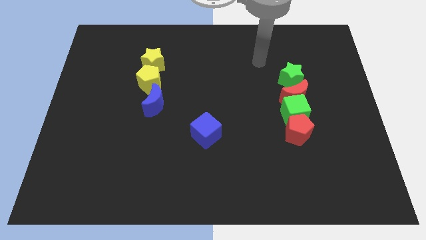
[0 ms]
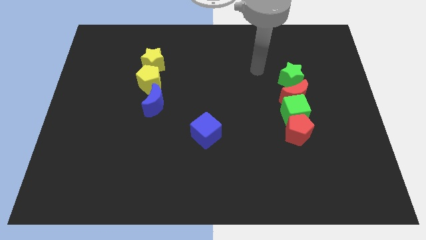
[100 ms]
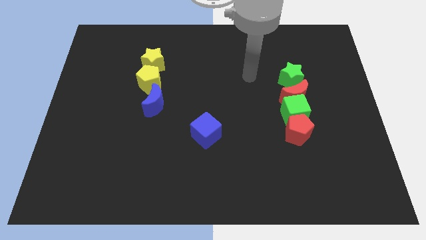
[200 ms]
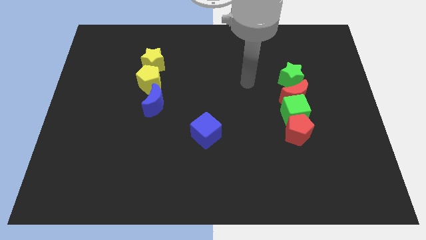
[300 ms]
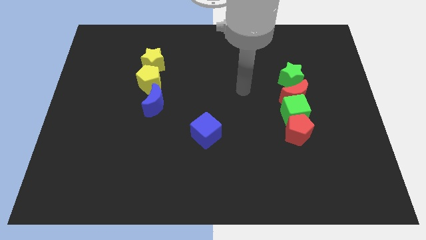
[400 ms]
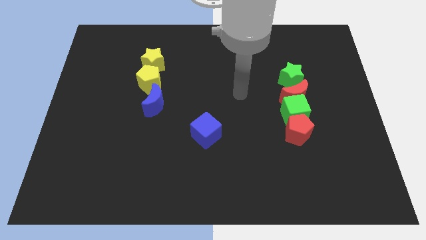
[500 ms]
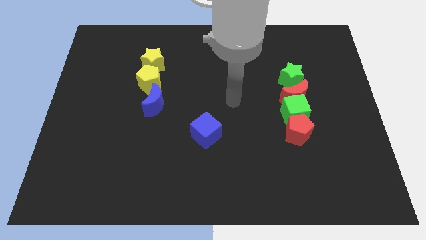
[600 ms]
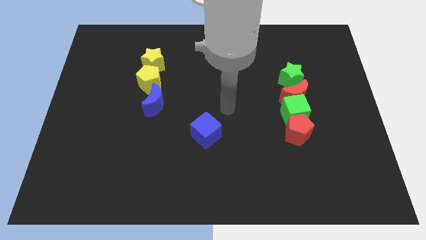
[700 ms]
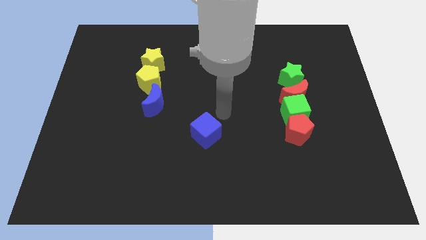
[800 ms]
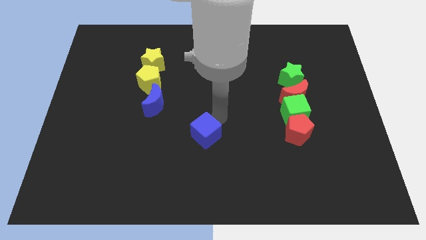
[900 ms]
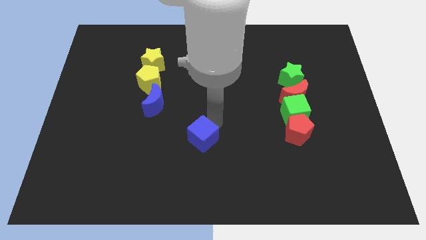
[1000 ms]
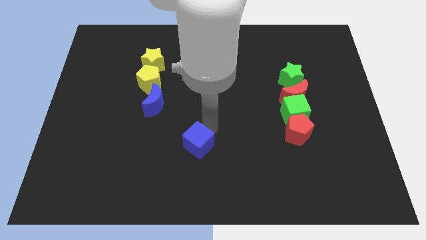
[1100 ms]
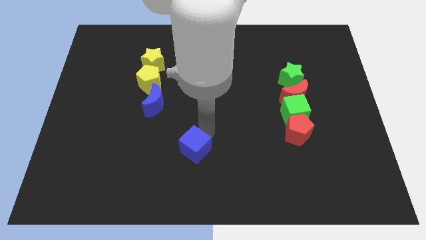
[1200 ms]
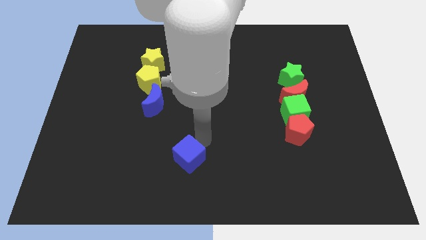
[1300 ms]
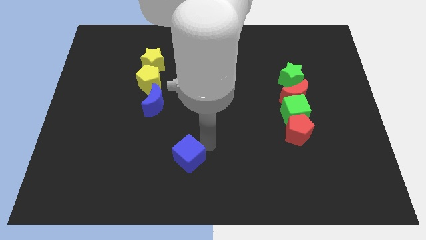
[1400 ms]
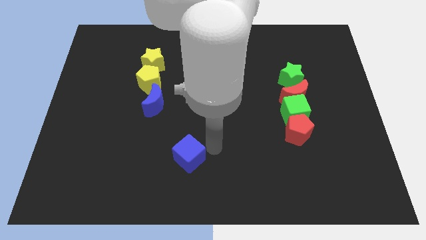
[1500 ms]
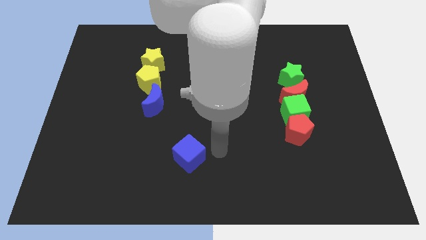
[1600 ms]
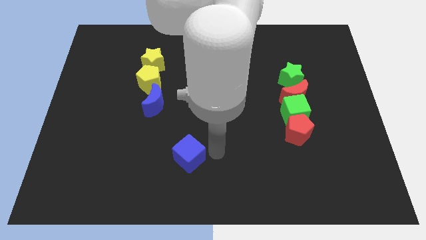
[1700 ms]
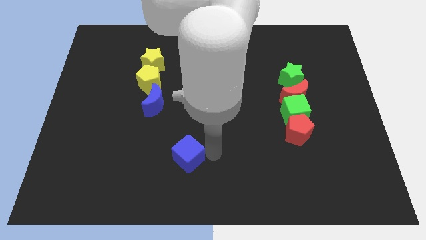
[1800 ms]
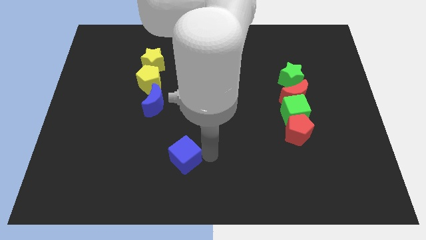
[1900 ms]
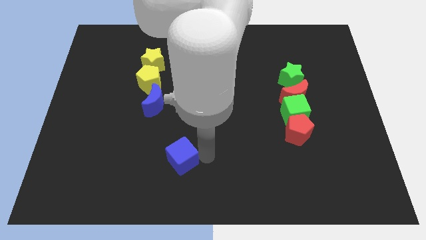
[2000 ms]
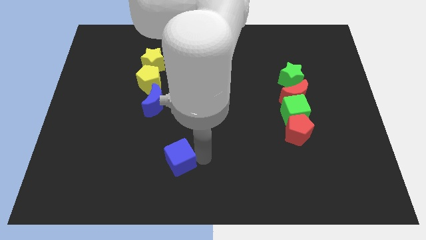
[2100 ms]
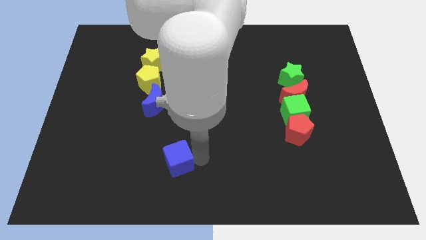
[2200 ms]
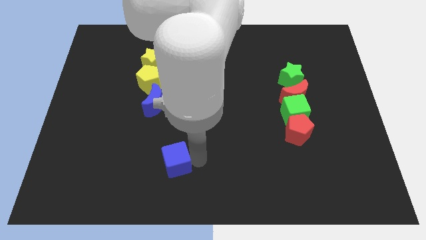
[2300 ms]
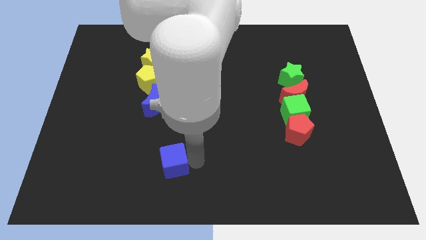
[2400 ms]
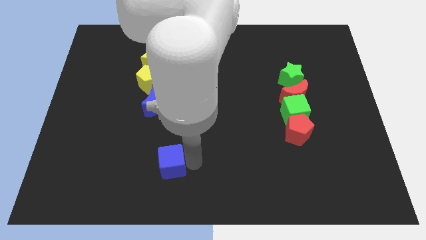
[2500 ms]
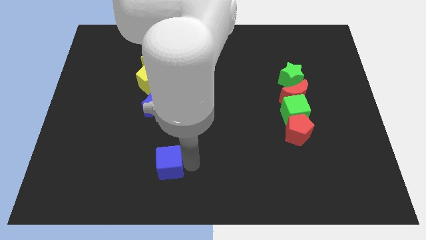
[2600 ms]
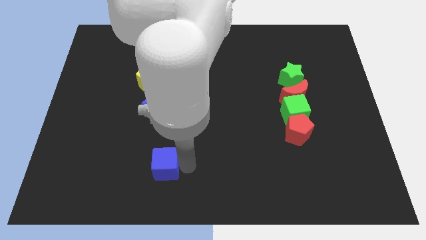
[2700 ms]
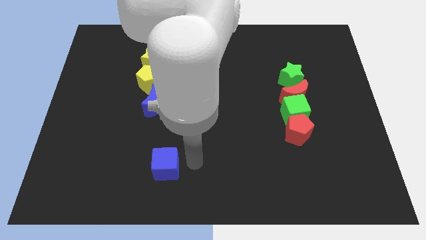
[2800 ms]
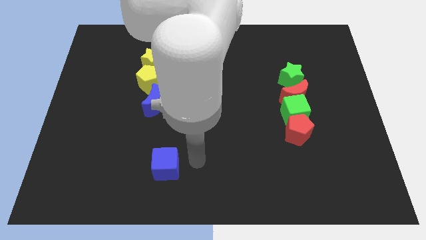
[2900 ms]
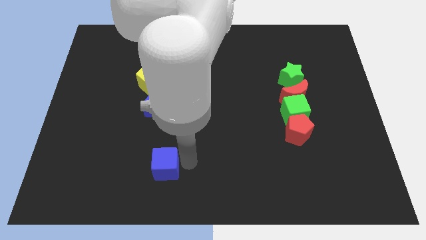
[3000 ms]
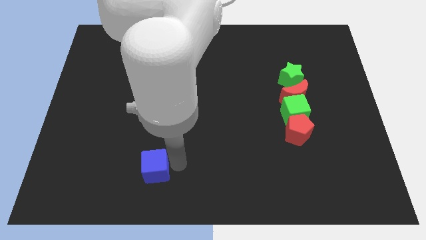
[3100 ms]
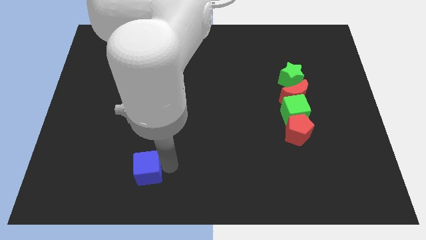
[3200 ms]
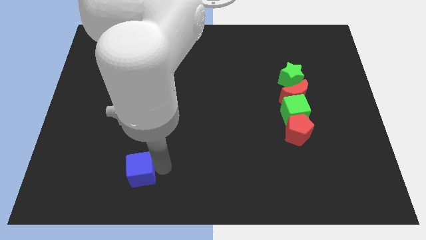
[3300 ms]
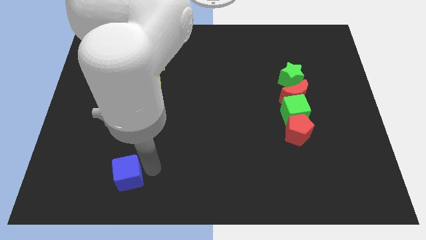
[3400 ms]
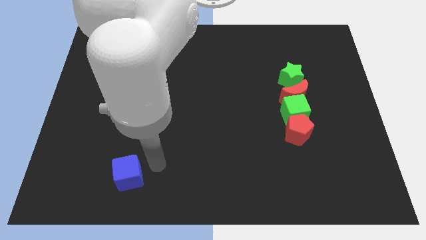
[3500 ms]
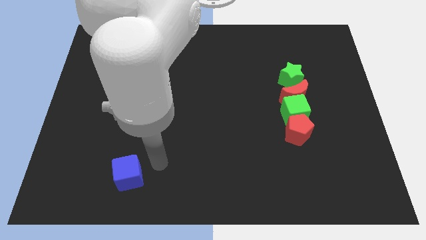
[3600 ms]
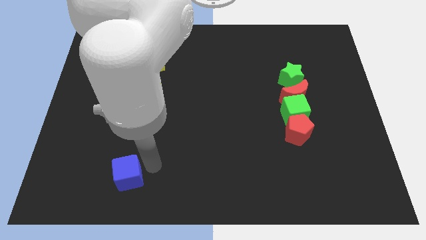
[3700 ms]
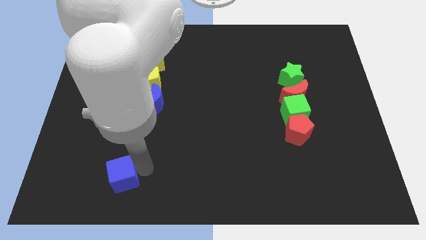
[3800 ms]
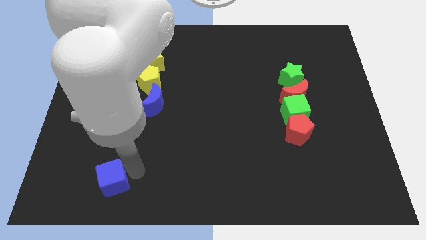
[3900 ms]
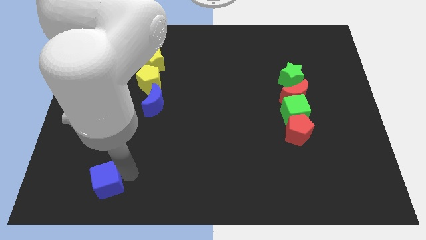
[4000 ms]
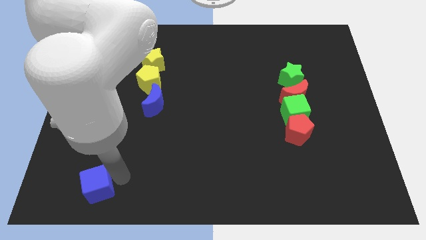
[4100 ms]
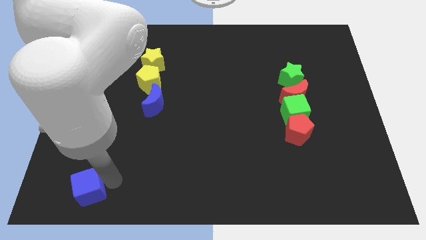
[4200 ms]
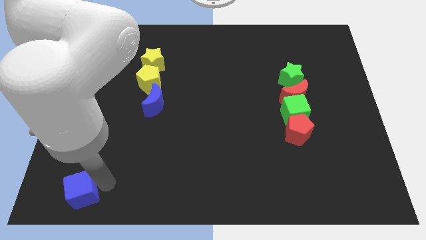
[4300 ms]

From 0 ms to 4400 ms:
put the blue cube to the bottom left corner

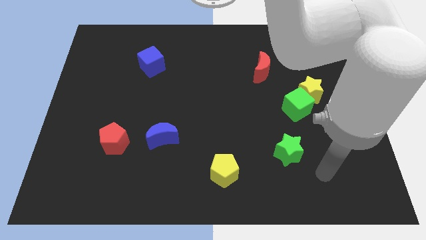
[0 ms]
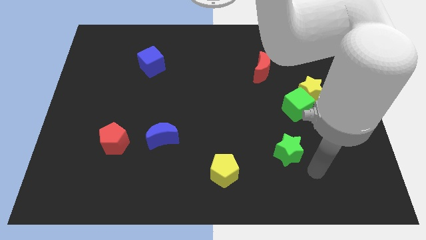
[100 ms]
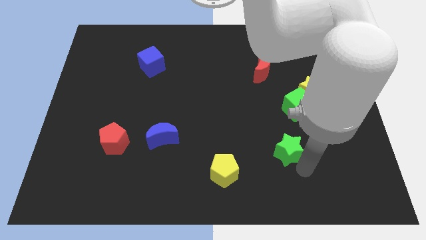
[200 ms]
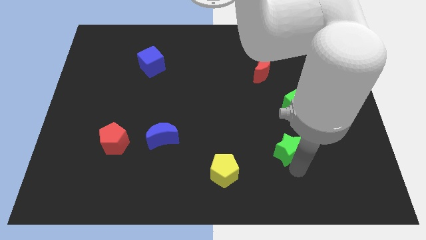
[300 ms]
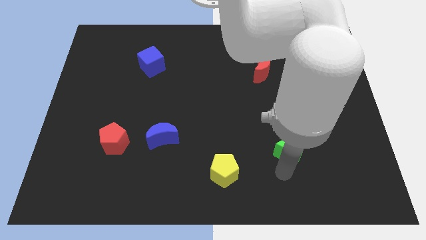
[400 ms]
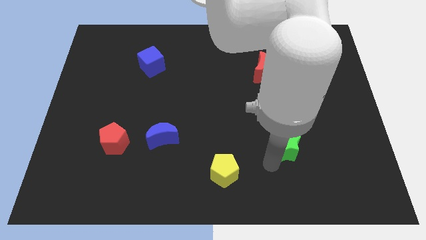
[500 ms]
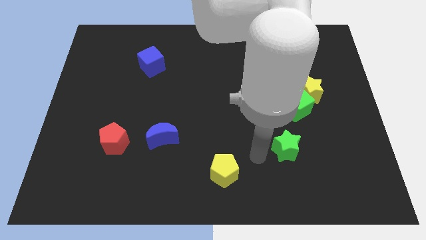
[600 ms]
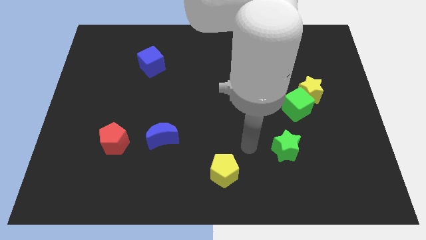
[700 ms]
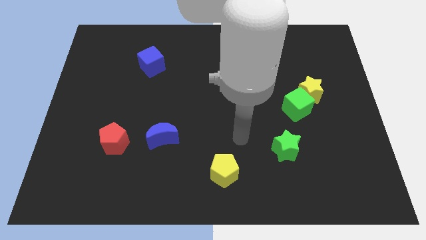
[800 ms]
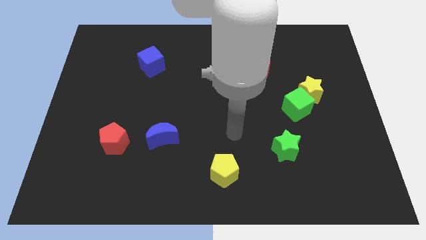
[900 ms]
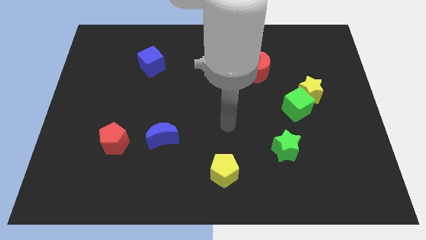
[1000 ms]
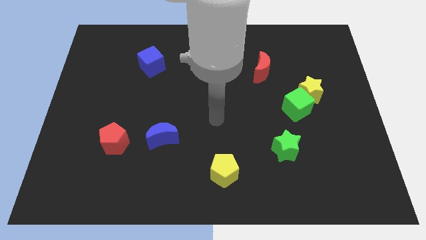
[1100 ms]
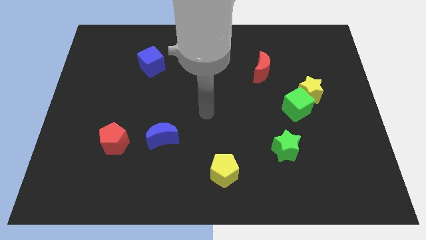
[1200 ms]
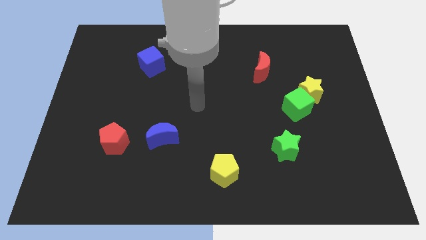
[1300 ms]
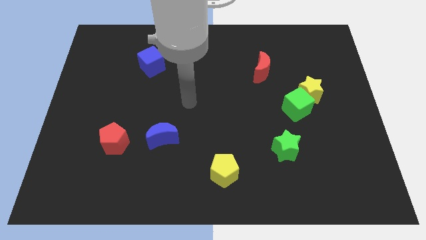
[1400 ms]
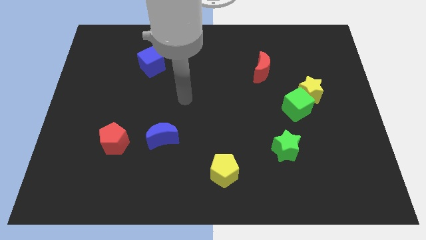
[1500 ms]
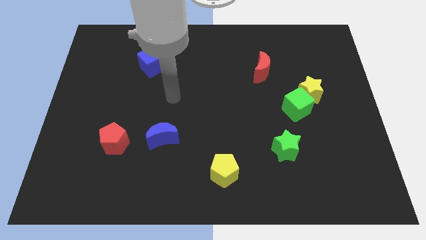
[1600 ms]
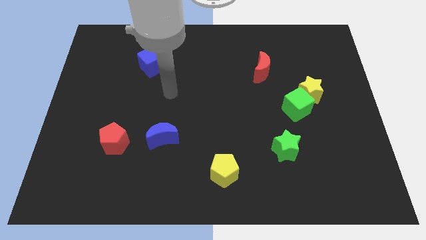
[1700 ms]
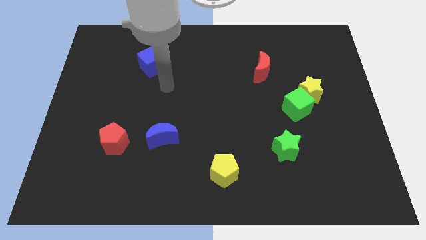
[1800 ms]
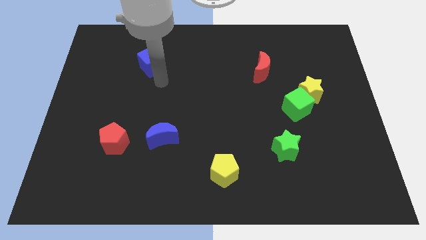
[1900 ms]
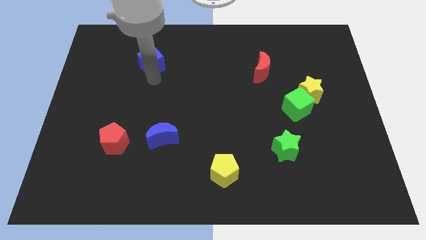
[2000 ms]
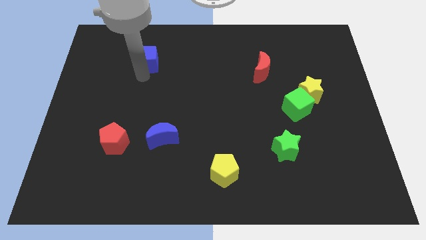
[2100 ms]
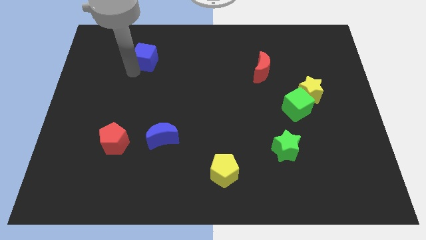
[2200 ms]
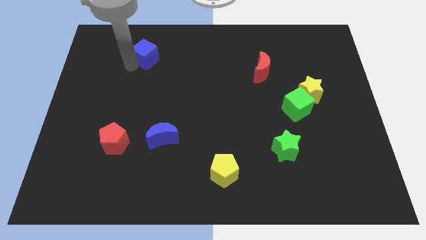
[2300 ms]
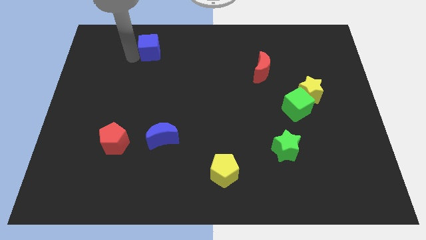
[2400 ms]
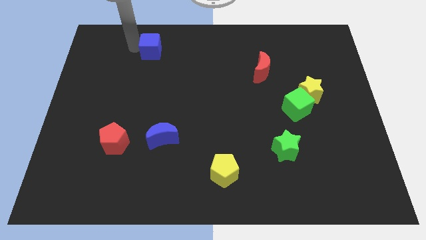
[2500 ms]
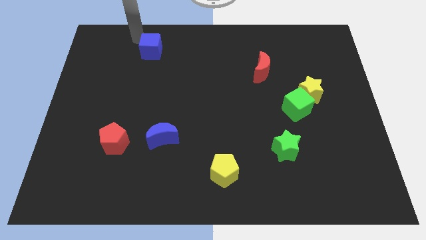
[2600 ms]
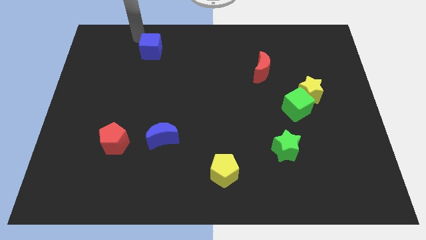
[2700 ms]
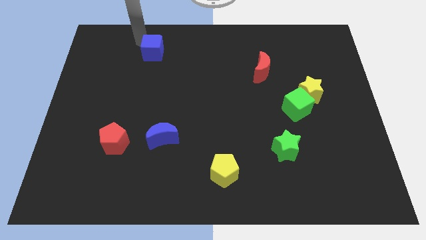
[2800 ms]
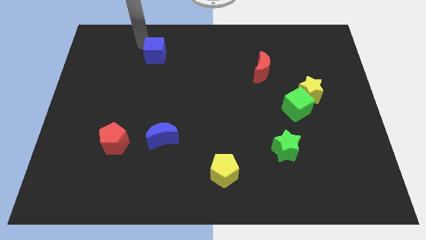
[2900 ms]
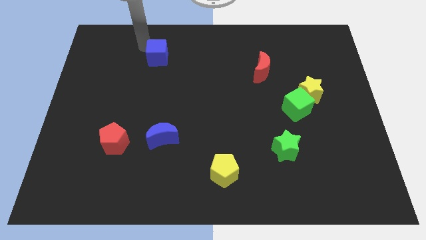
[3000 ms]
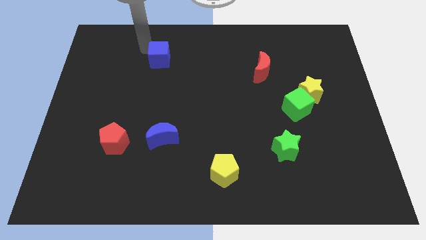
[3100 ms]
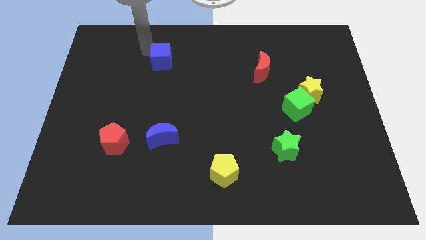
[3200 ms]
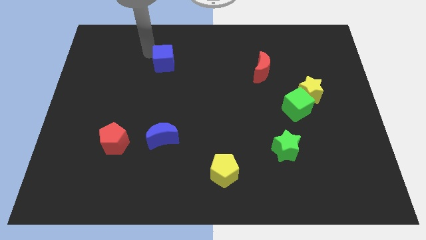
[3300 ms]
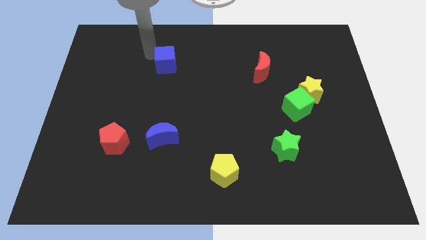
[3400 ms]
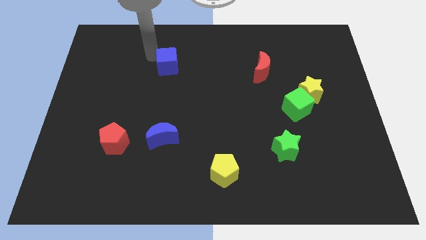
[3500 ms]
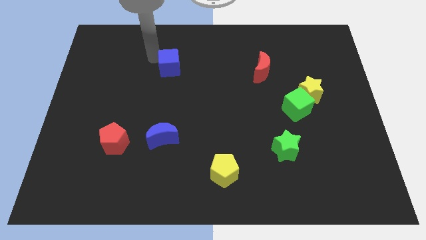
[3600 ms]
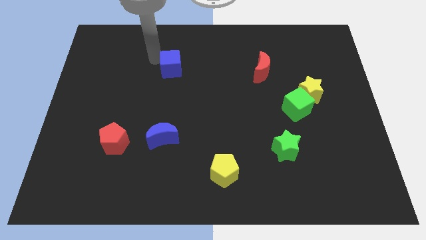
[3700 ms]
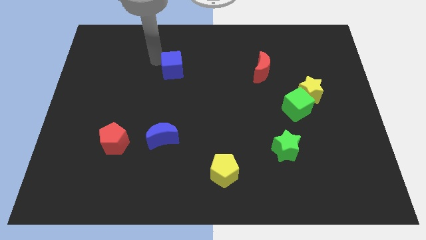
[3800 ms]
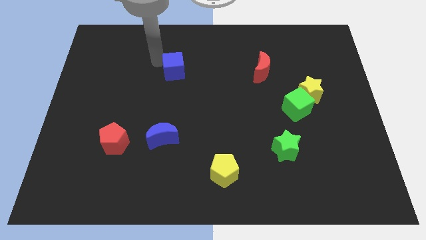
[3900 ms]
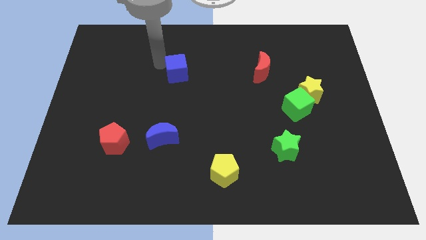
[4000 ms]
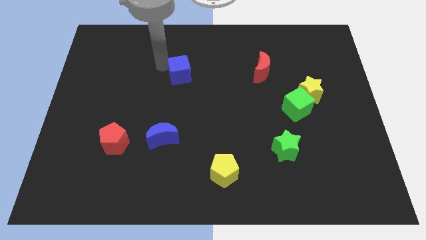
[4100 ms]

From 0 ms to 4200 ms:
push the blue cube to the middle

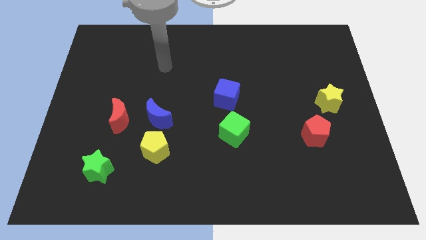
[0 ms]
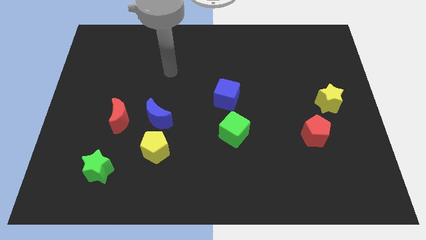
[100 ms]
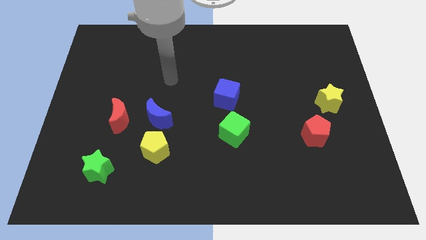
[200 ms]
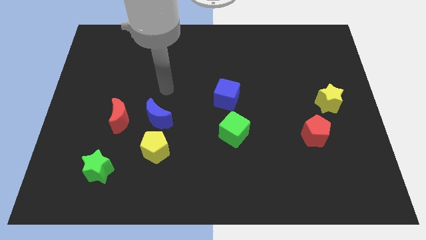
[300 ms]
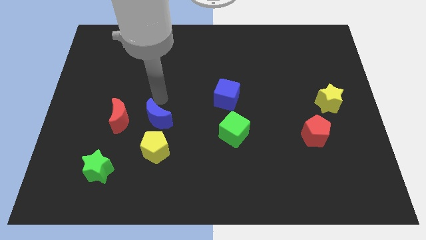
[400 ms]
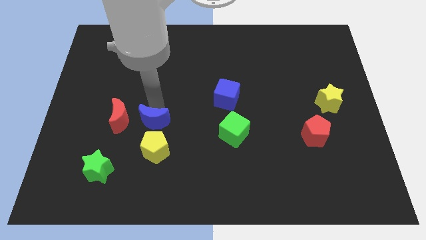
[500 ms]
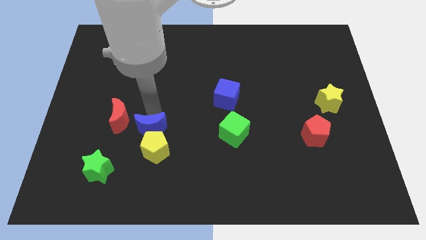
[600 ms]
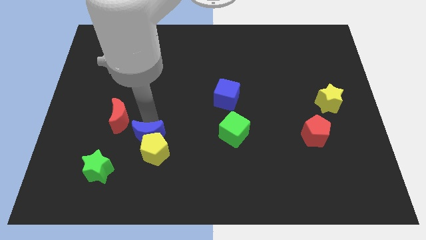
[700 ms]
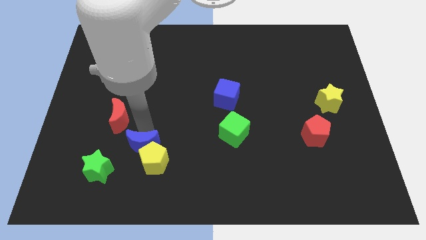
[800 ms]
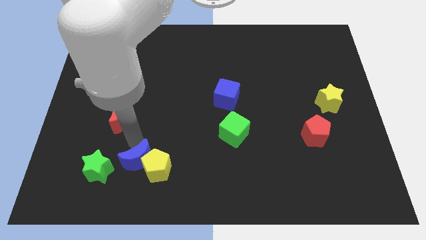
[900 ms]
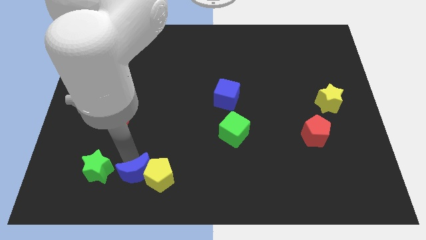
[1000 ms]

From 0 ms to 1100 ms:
put the yellow pentagon to the bottom side
